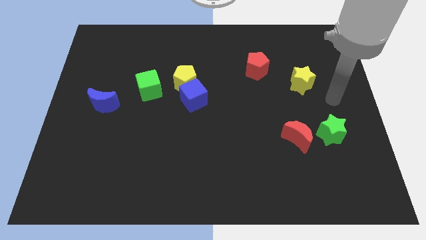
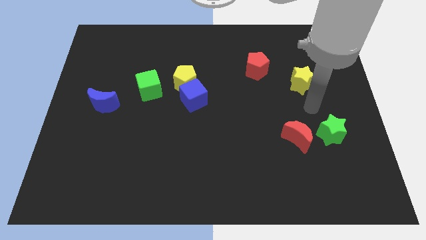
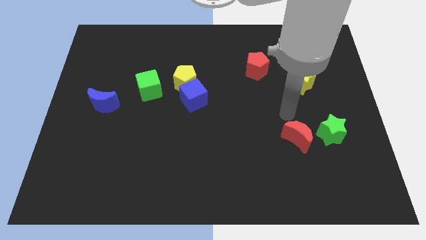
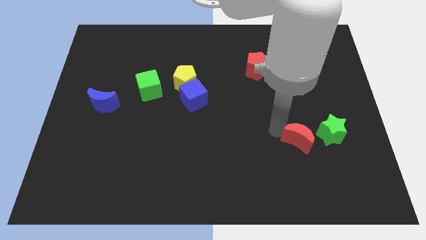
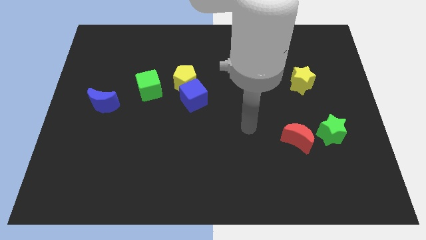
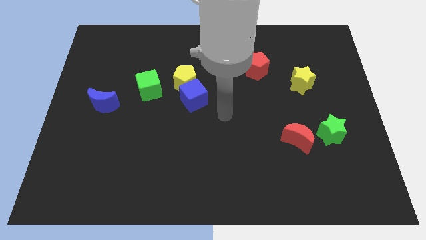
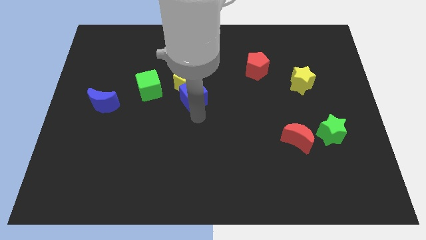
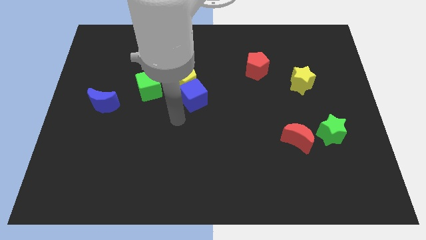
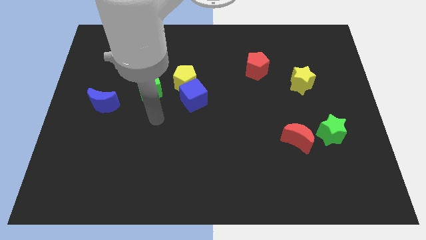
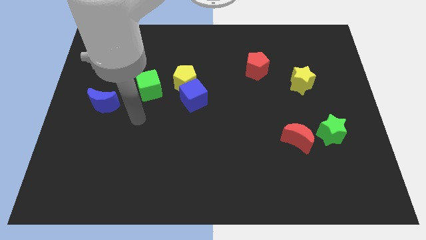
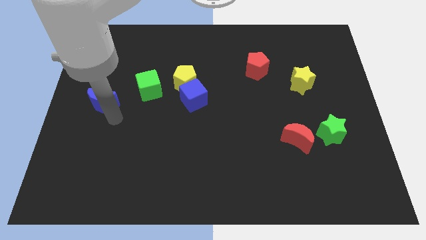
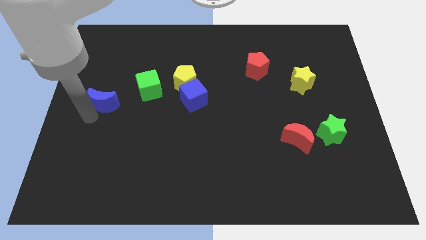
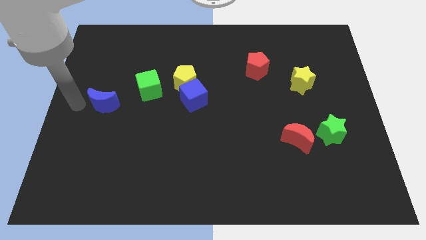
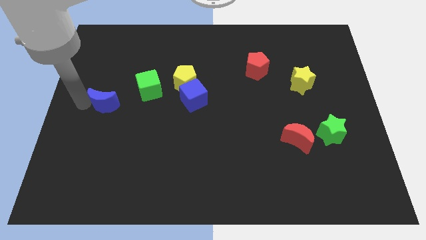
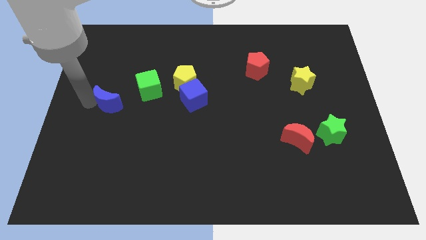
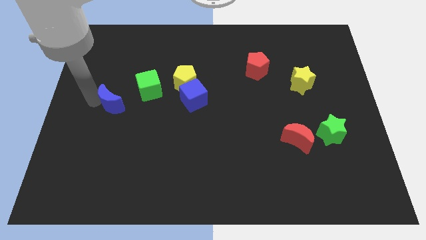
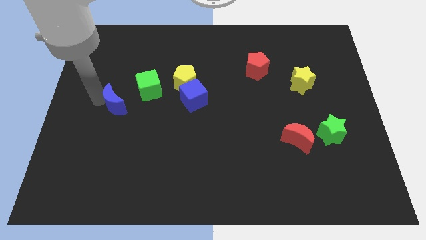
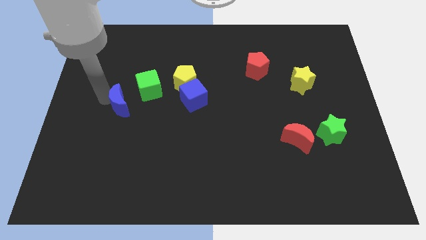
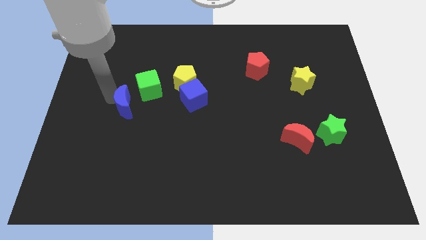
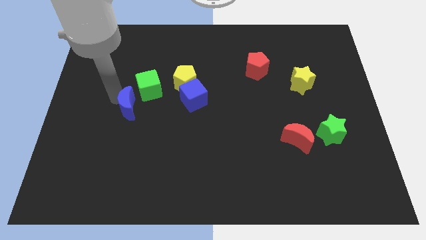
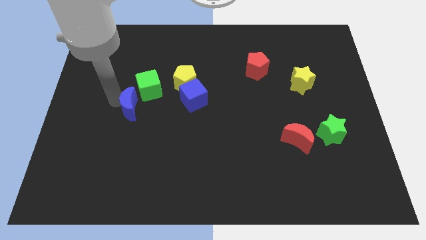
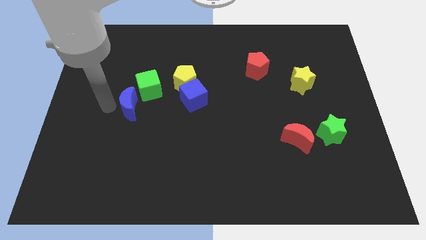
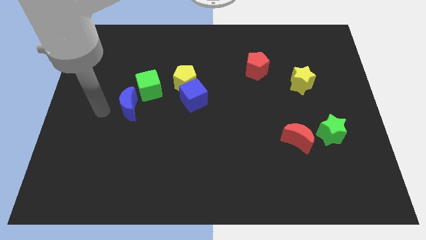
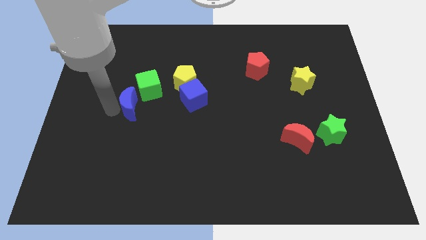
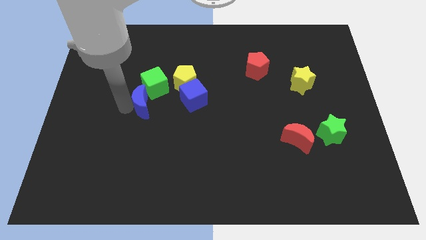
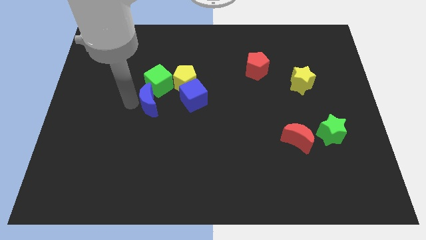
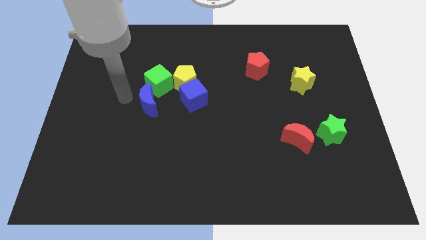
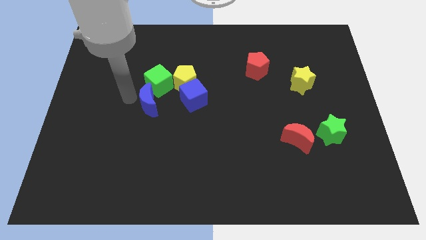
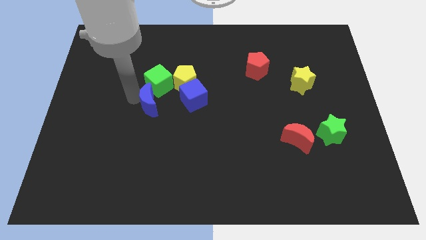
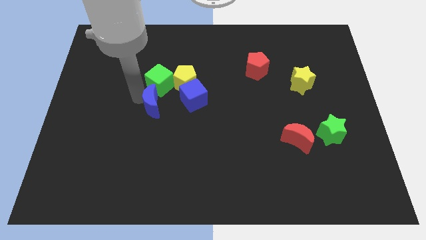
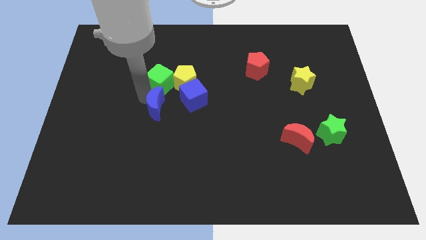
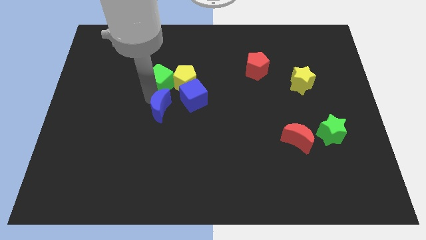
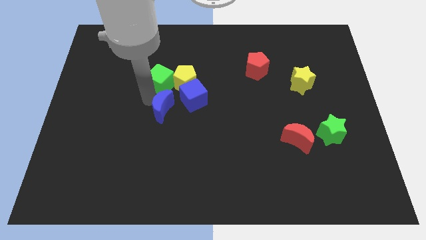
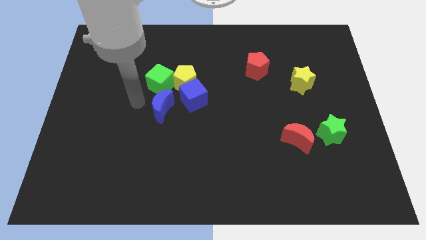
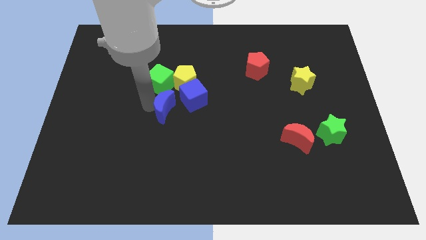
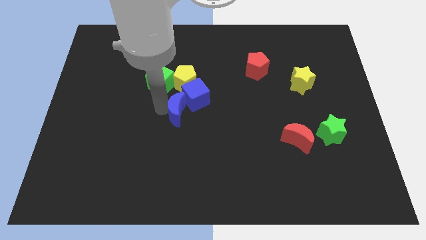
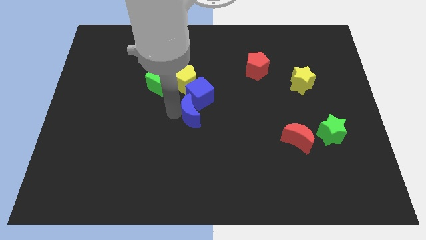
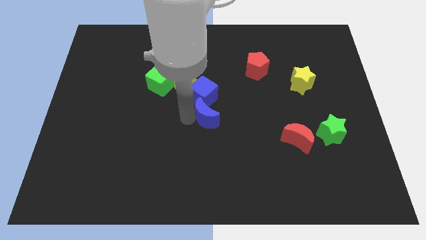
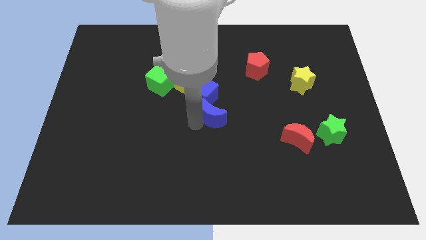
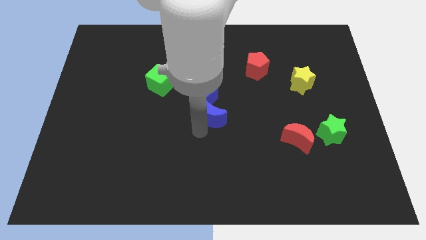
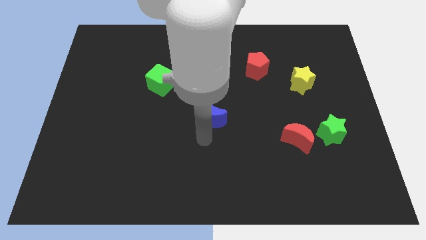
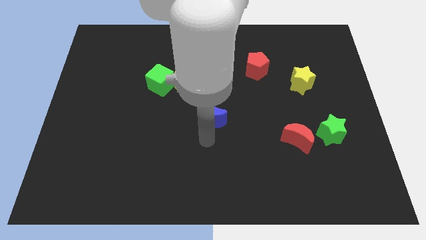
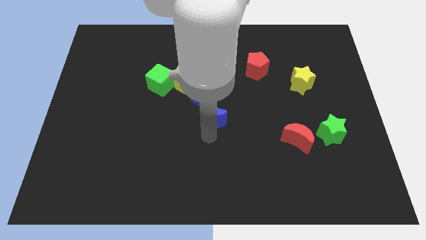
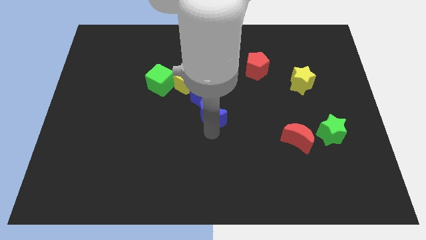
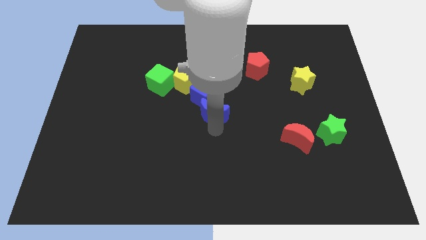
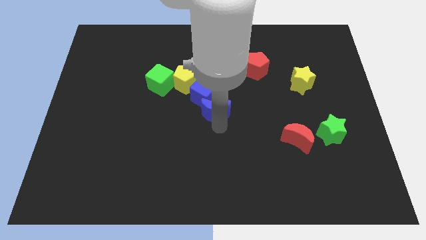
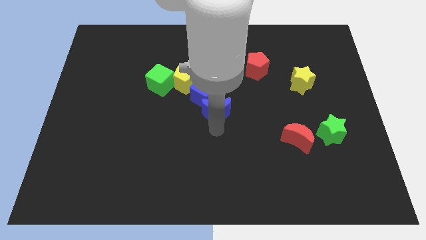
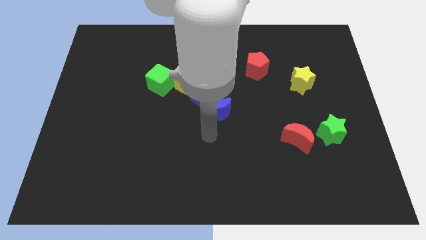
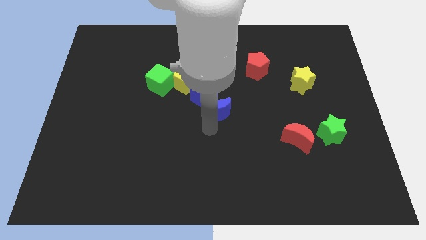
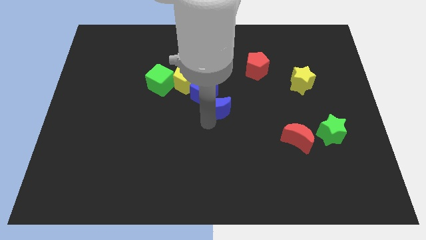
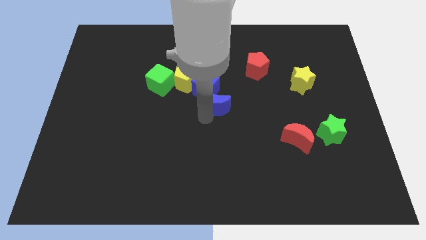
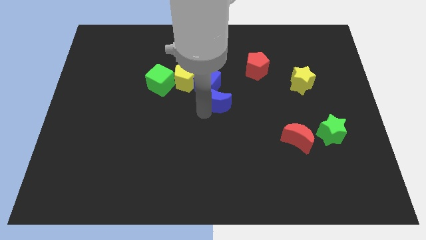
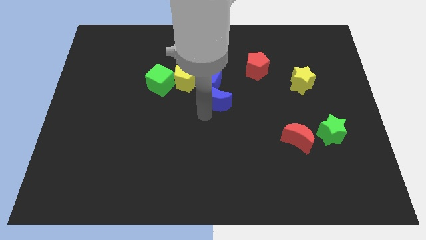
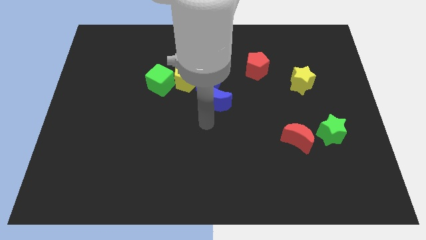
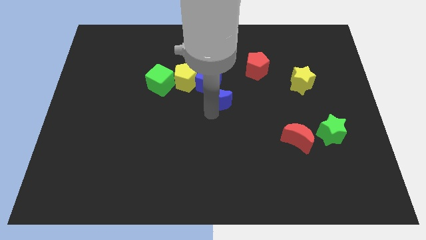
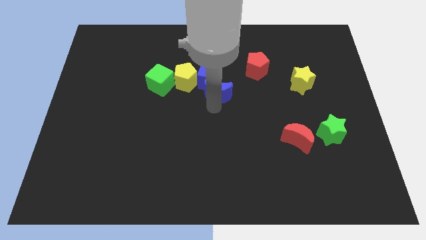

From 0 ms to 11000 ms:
put the blue moon to the right side of the yellow pentagon

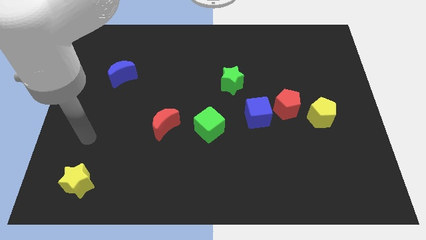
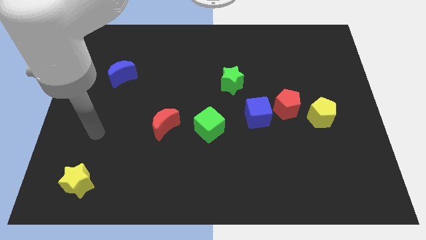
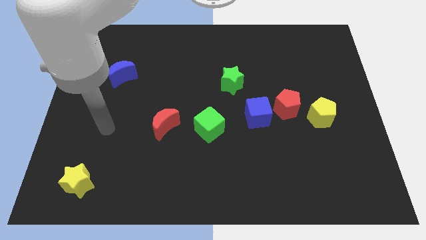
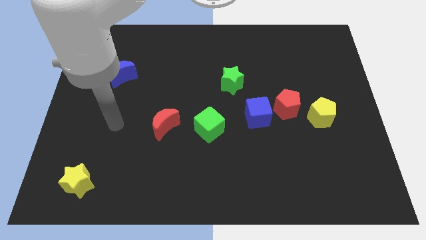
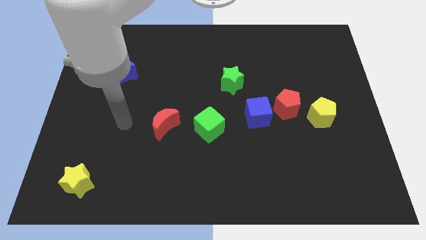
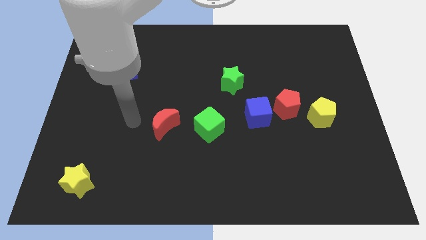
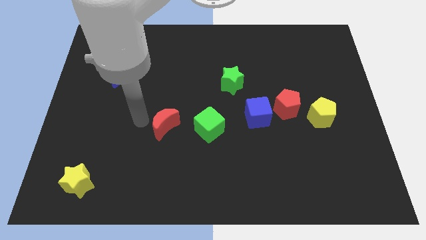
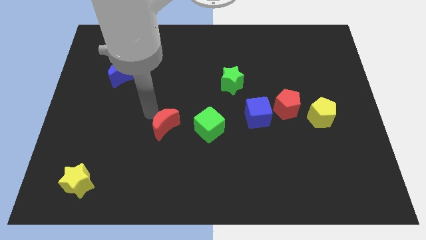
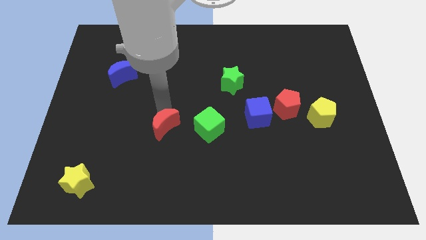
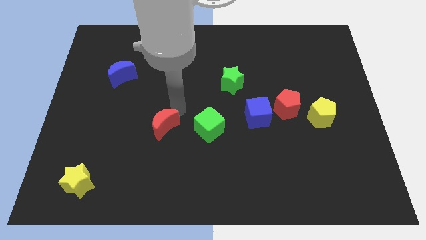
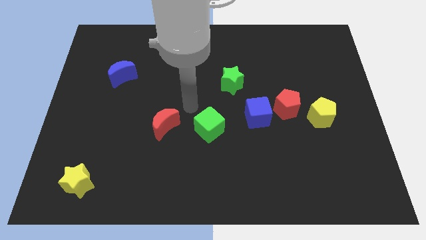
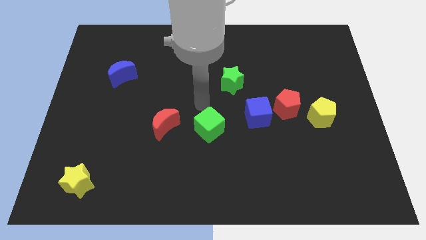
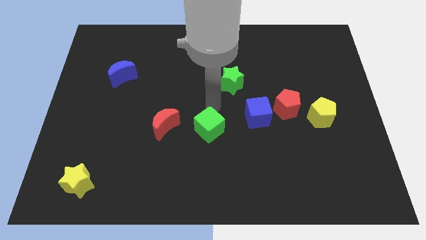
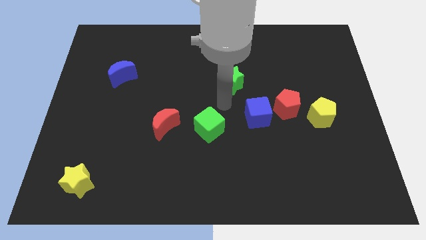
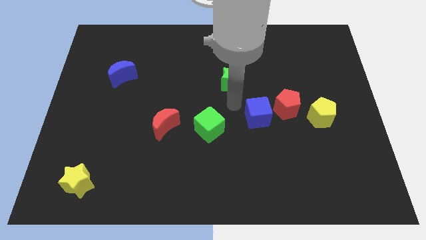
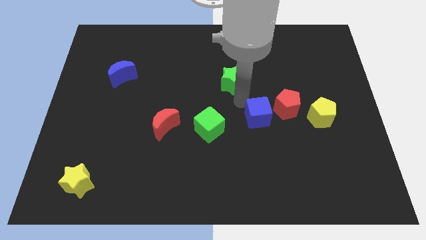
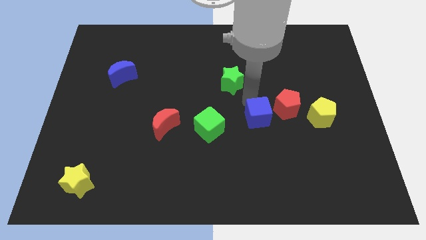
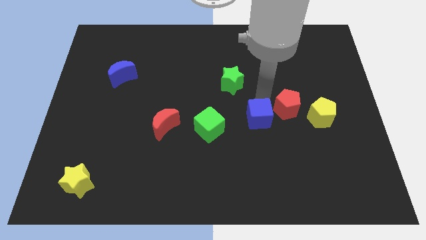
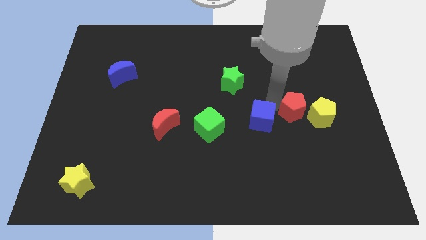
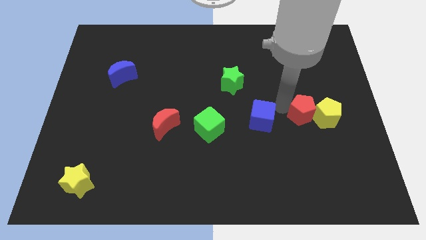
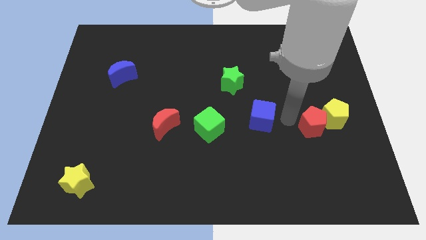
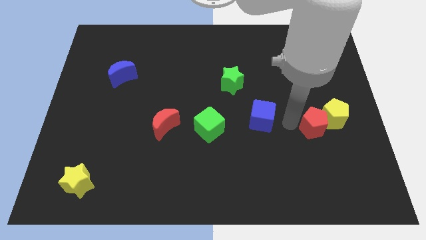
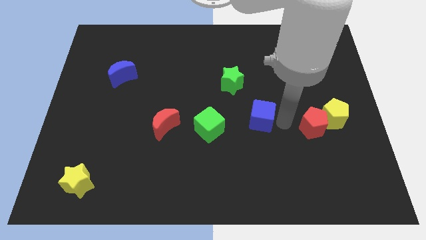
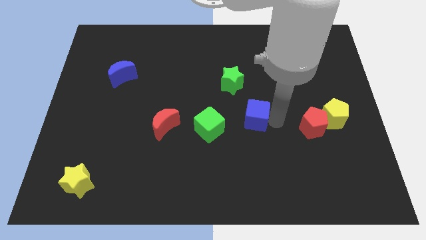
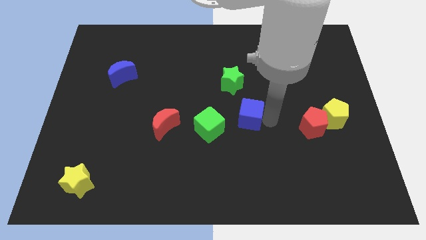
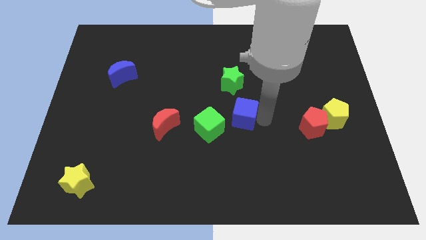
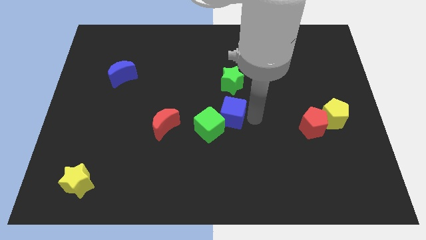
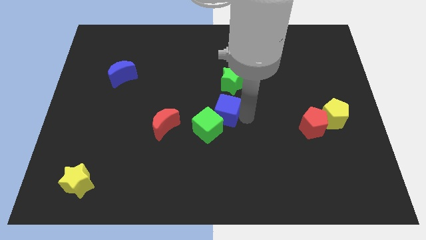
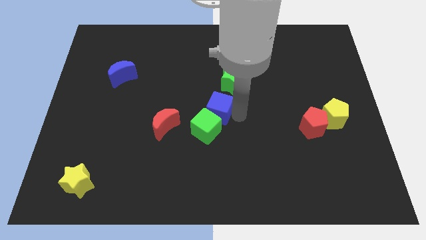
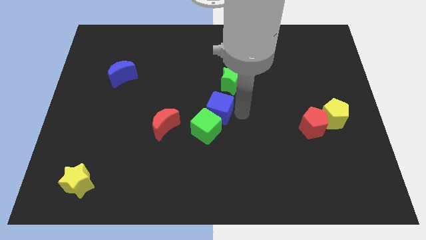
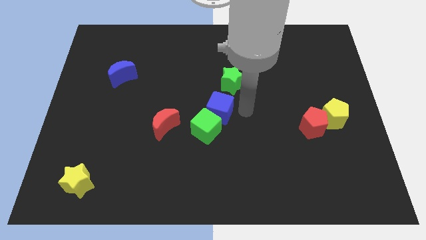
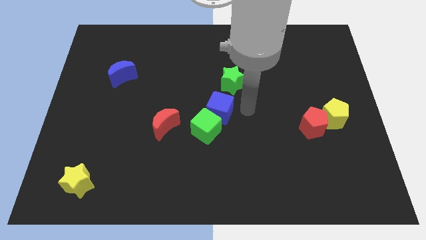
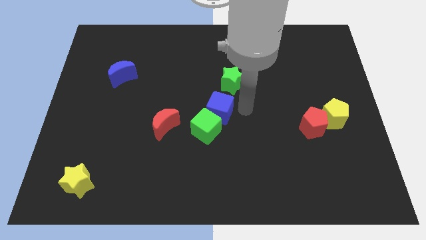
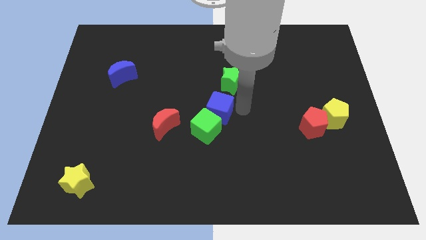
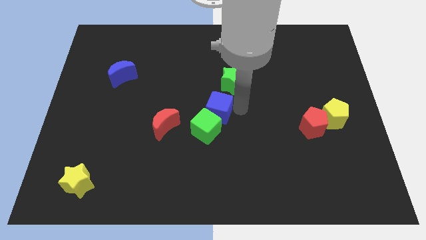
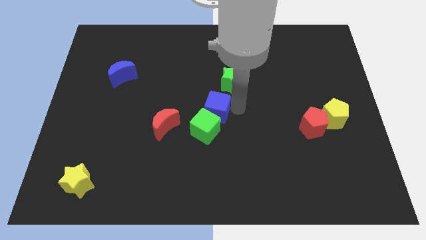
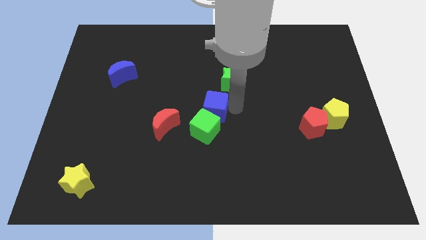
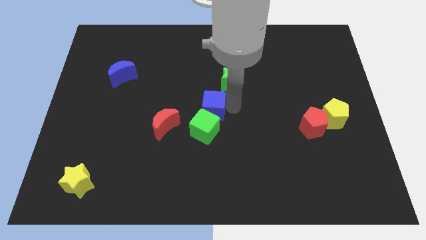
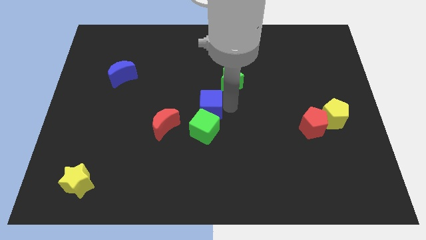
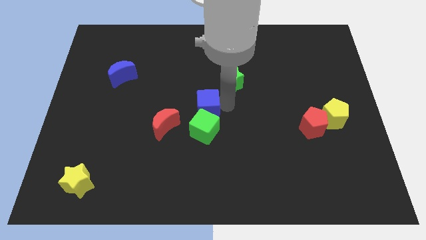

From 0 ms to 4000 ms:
put the blue cube diagonally up and to the left of the green cube
